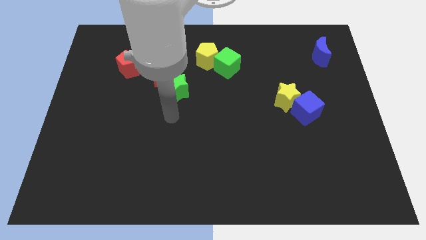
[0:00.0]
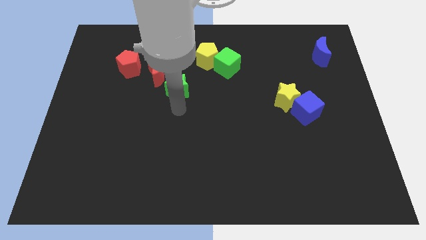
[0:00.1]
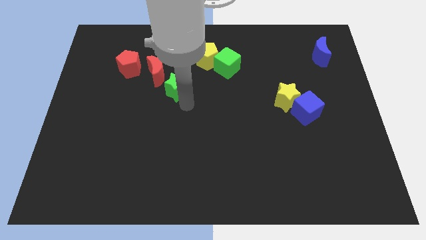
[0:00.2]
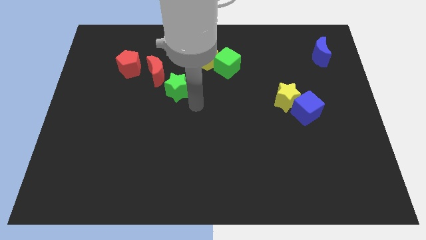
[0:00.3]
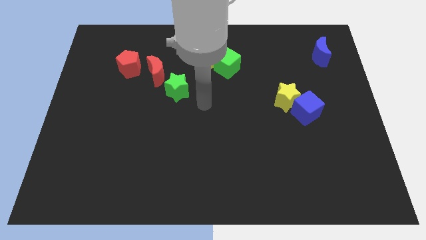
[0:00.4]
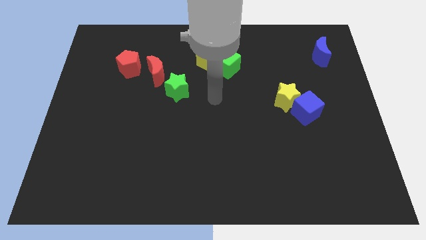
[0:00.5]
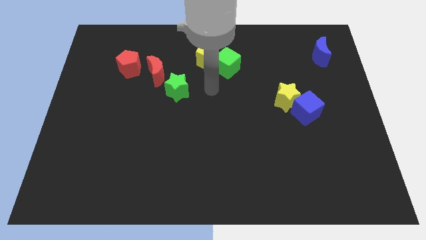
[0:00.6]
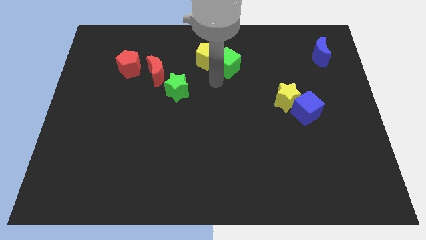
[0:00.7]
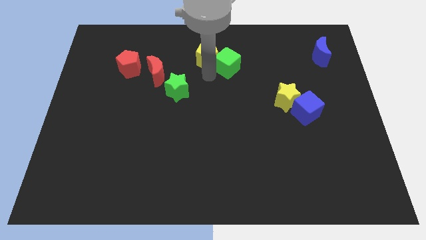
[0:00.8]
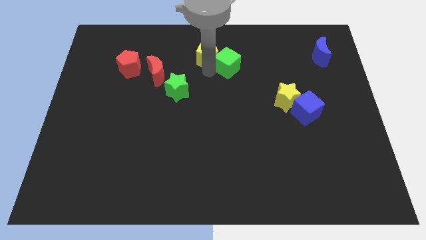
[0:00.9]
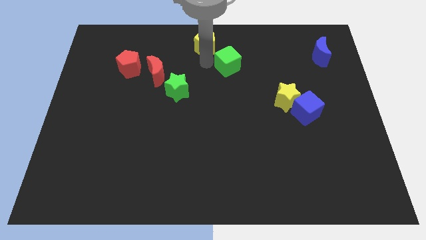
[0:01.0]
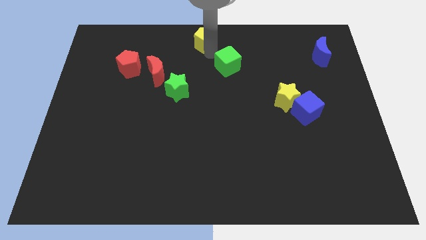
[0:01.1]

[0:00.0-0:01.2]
move the green cube away from the yellow pentagon

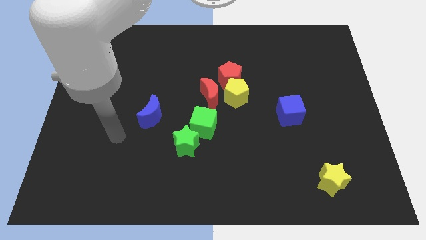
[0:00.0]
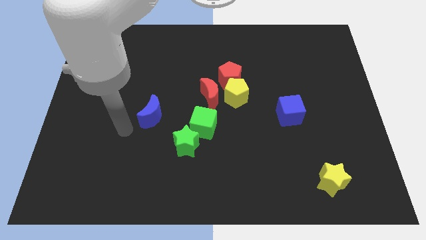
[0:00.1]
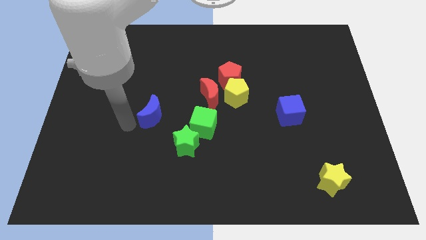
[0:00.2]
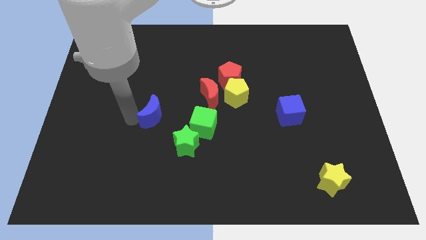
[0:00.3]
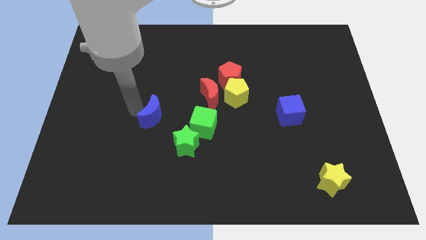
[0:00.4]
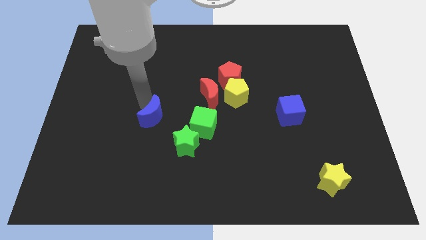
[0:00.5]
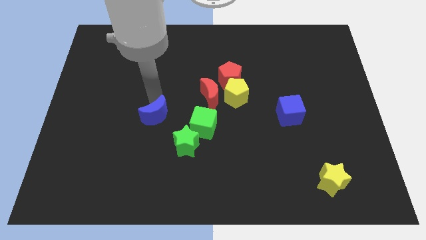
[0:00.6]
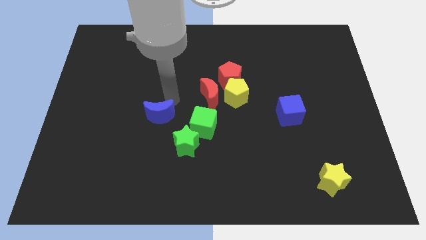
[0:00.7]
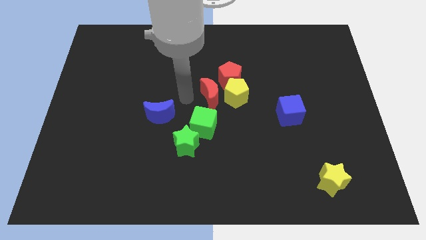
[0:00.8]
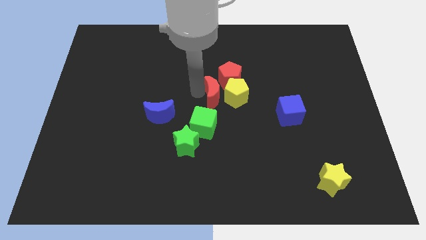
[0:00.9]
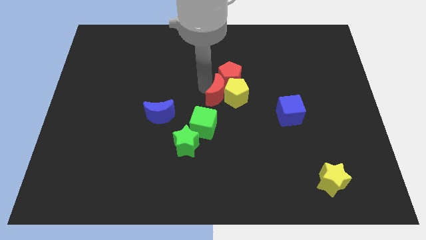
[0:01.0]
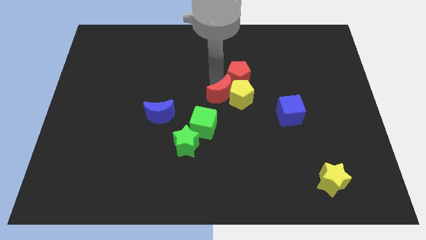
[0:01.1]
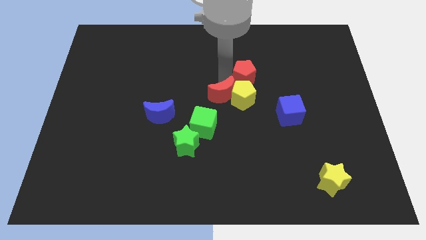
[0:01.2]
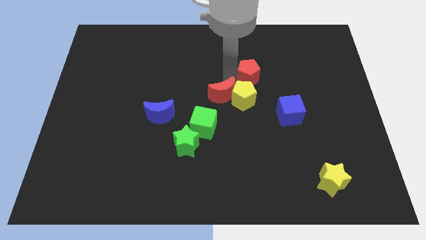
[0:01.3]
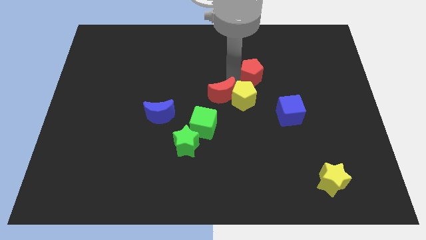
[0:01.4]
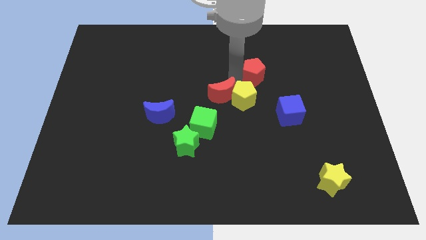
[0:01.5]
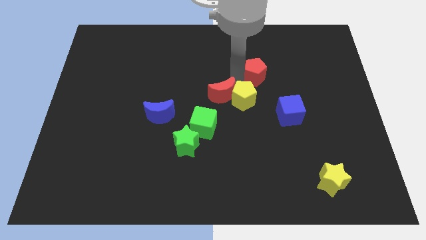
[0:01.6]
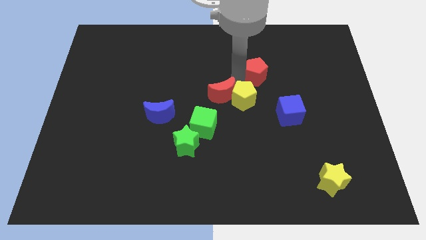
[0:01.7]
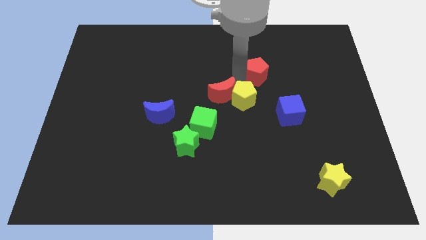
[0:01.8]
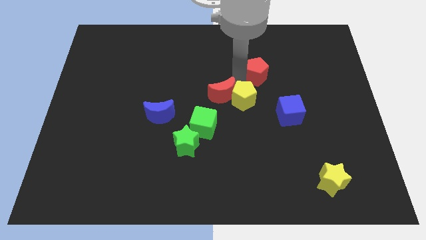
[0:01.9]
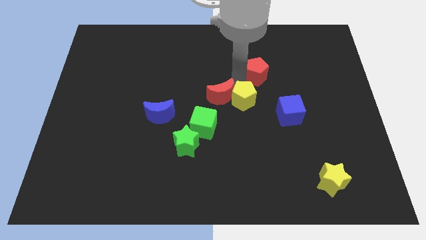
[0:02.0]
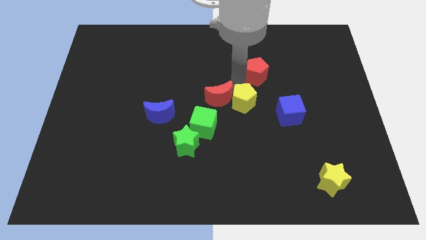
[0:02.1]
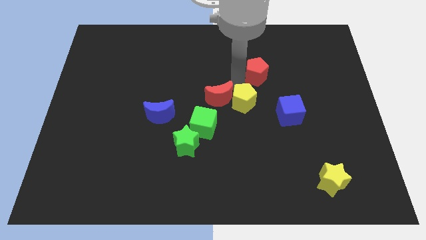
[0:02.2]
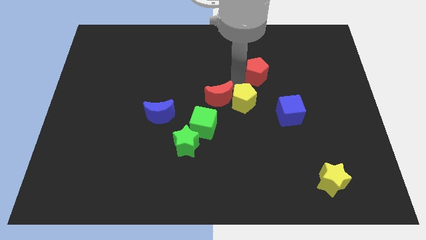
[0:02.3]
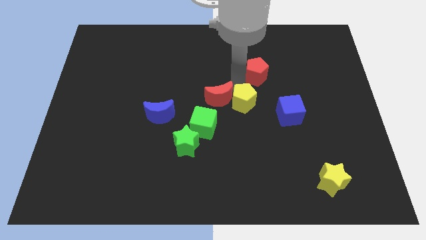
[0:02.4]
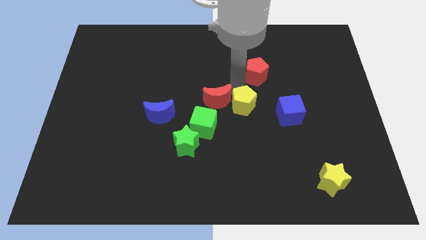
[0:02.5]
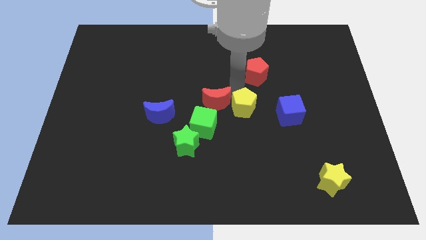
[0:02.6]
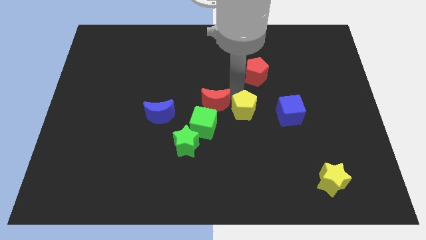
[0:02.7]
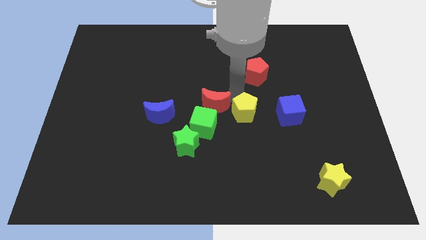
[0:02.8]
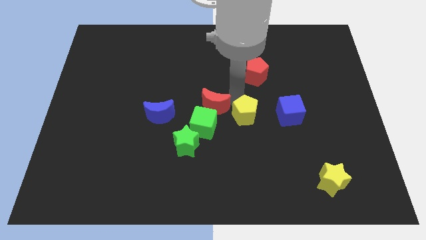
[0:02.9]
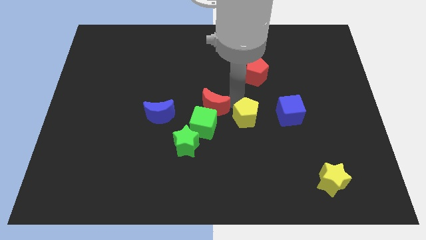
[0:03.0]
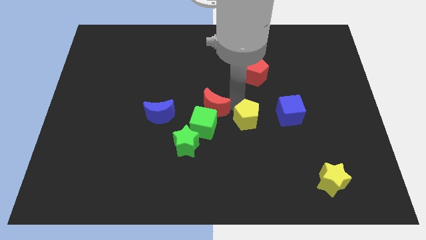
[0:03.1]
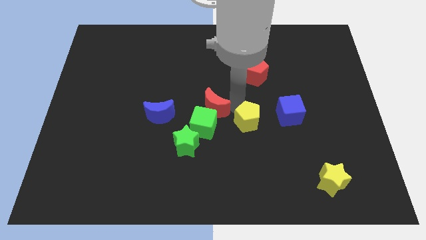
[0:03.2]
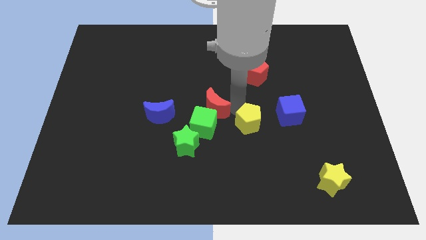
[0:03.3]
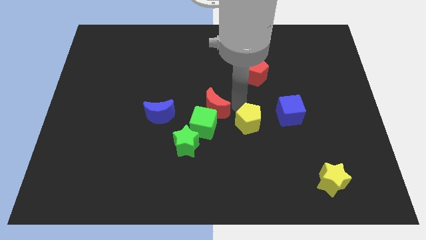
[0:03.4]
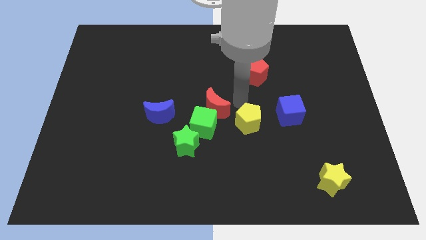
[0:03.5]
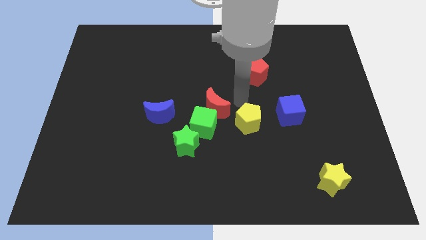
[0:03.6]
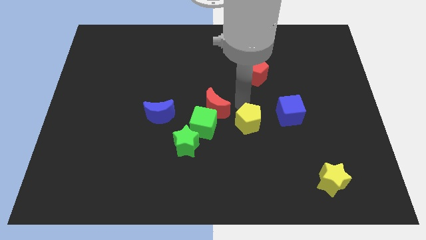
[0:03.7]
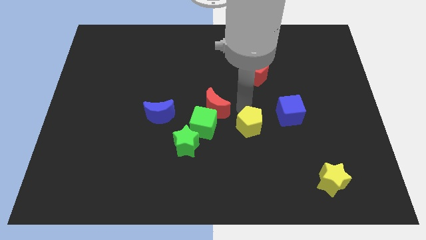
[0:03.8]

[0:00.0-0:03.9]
pull the yellow pentagon apart from the red pentagon and red moon

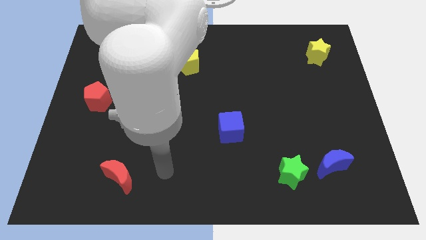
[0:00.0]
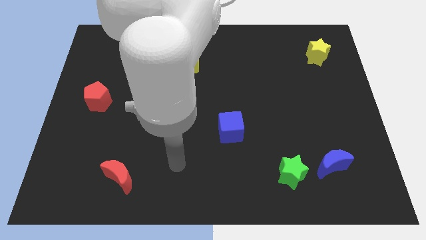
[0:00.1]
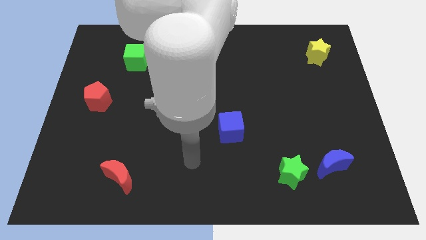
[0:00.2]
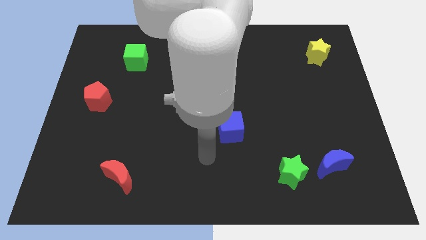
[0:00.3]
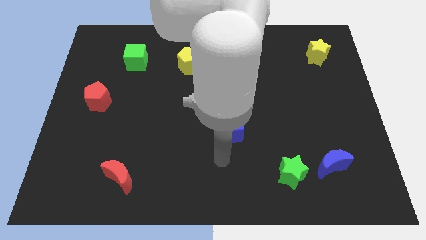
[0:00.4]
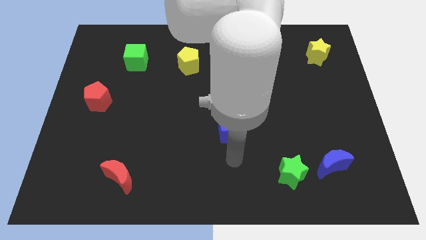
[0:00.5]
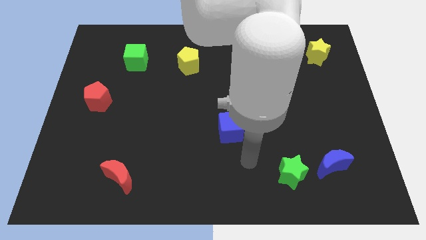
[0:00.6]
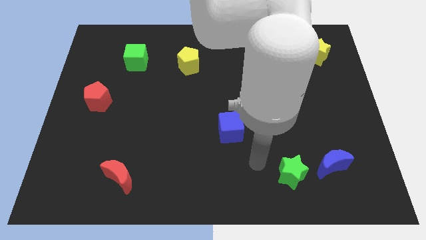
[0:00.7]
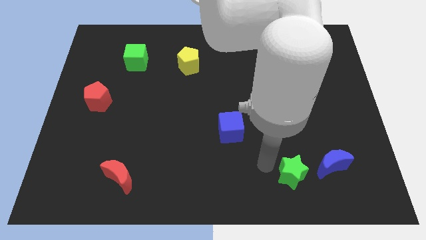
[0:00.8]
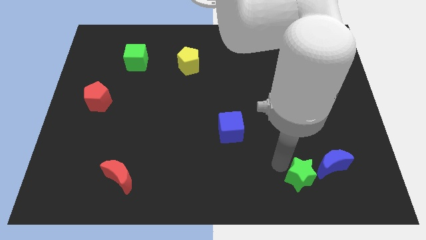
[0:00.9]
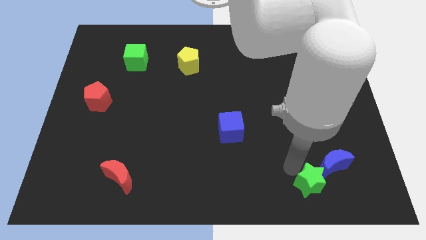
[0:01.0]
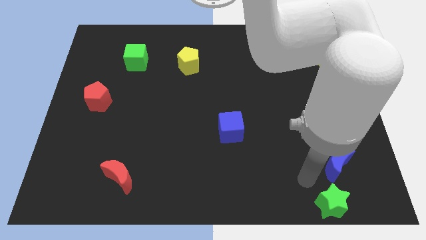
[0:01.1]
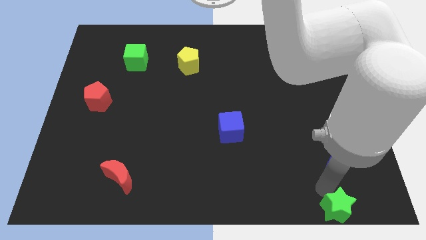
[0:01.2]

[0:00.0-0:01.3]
move the blue moon away from the green star

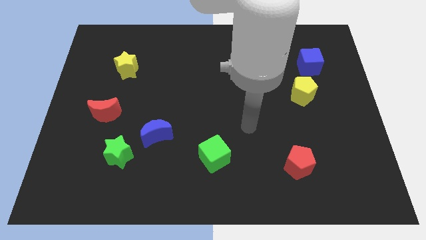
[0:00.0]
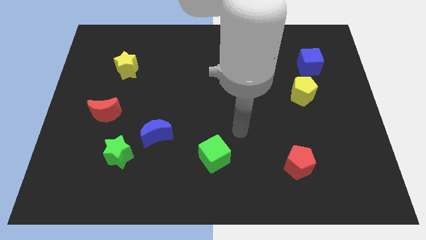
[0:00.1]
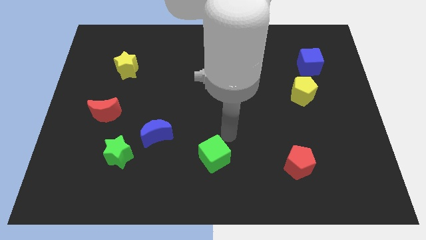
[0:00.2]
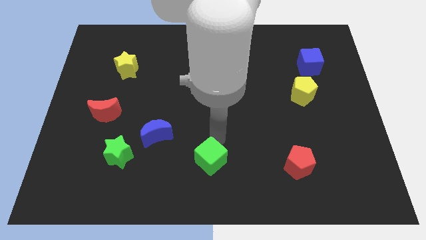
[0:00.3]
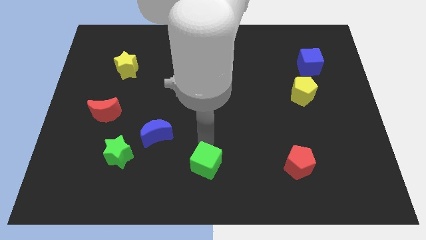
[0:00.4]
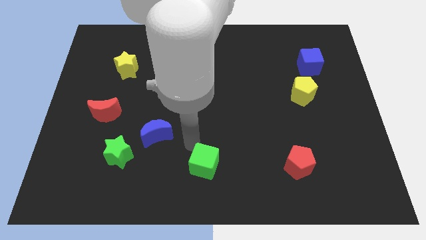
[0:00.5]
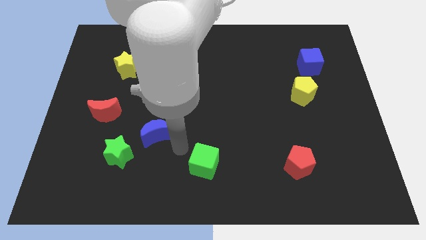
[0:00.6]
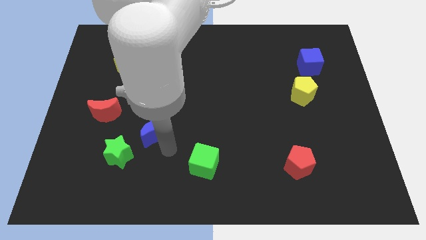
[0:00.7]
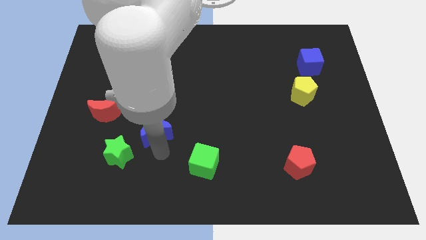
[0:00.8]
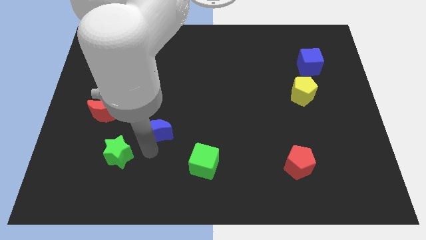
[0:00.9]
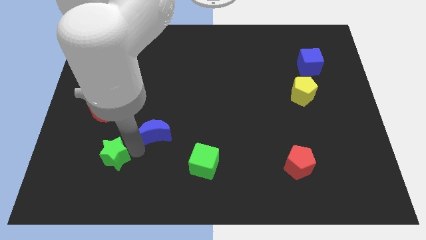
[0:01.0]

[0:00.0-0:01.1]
pull the blue moon apart from the green star

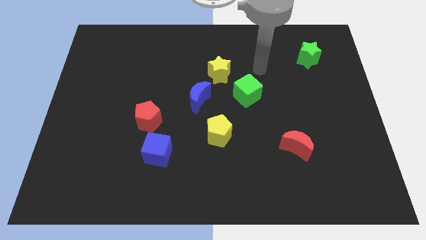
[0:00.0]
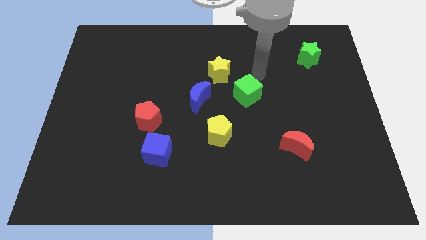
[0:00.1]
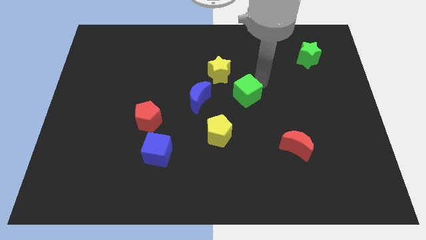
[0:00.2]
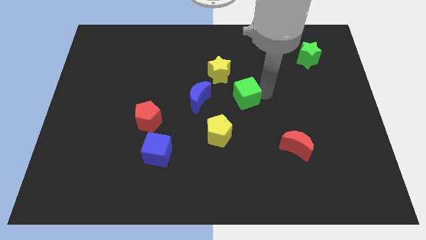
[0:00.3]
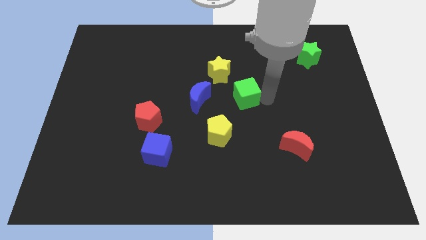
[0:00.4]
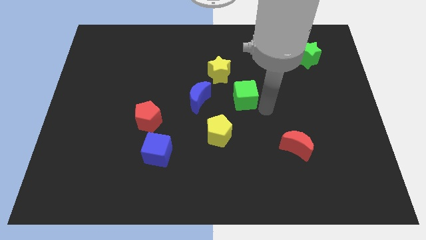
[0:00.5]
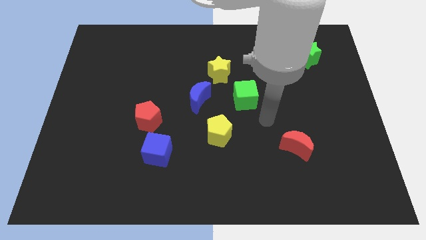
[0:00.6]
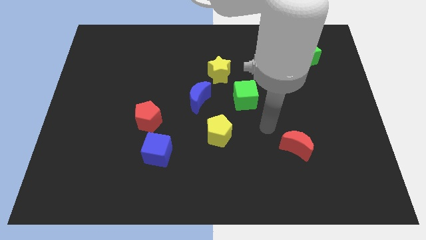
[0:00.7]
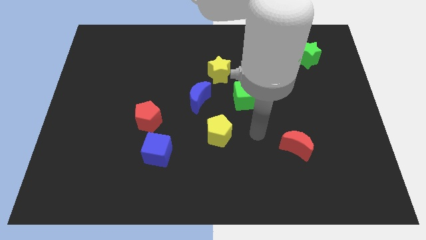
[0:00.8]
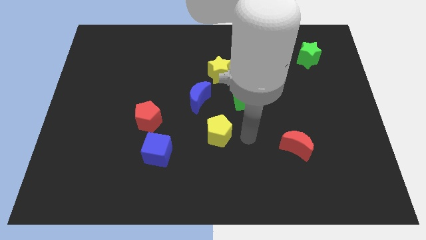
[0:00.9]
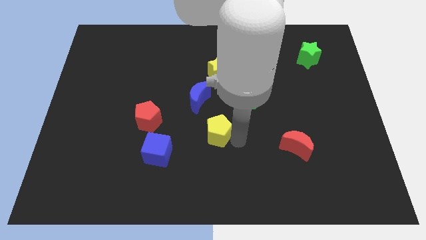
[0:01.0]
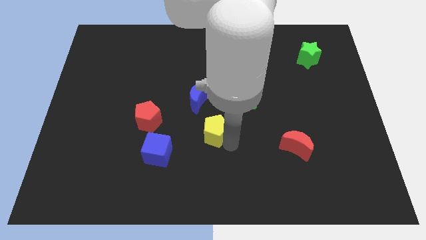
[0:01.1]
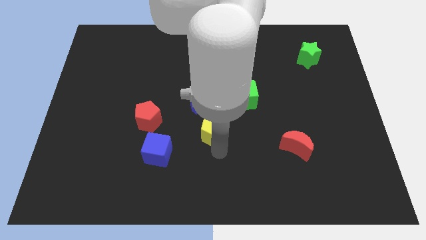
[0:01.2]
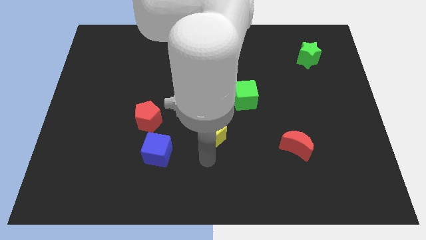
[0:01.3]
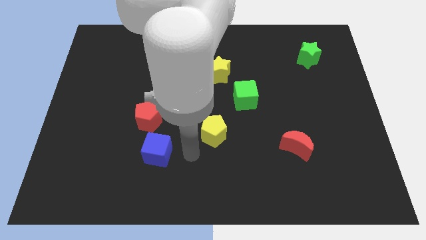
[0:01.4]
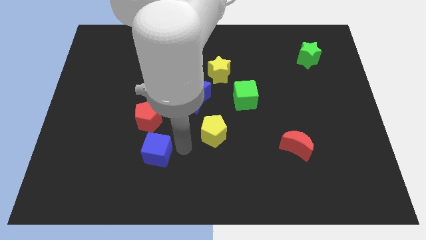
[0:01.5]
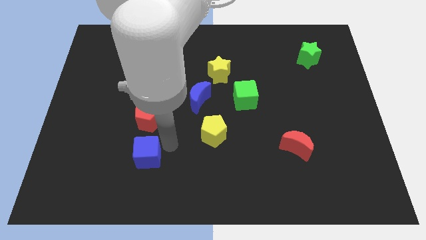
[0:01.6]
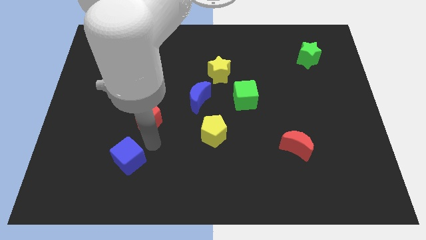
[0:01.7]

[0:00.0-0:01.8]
pull the red pentagon apart from the blue cube
